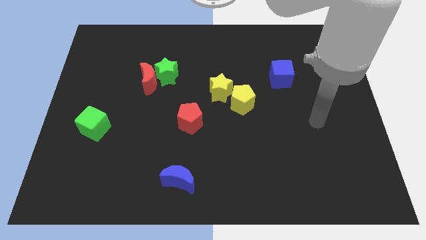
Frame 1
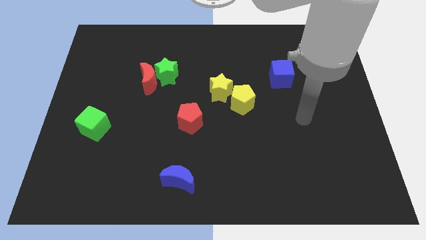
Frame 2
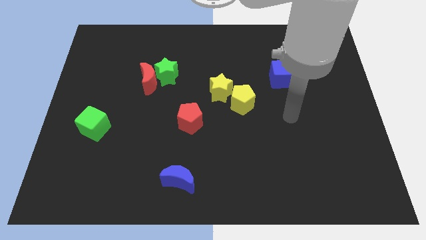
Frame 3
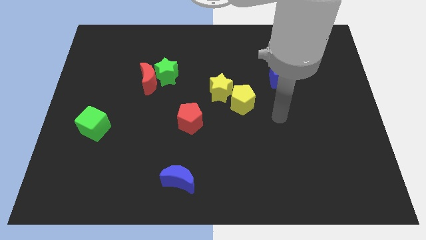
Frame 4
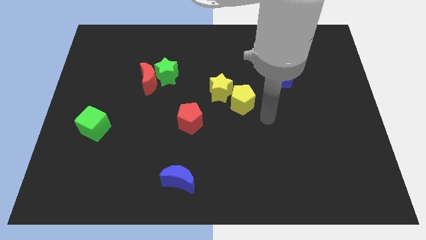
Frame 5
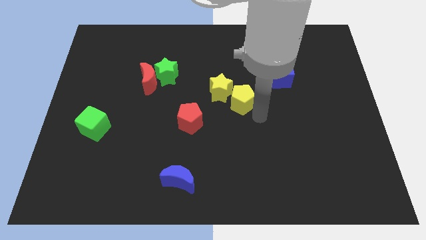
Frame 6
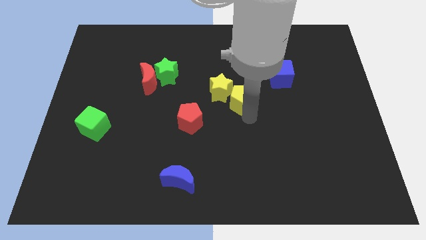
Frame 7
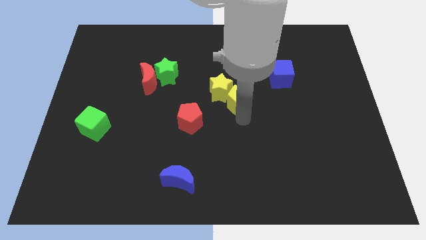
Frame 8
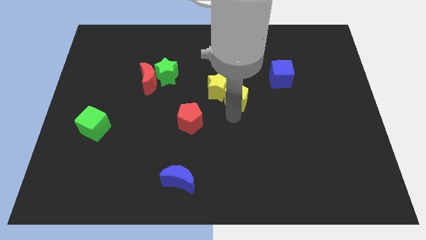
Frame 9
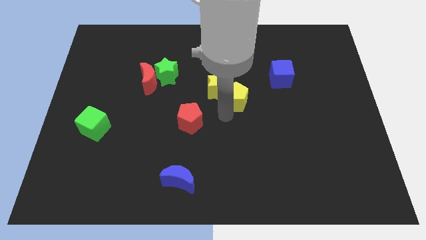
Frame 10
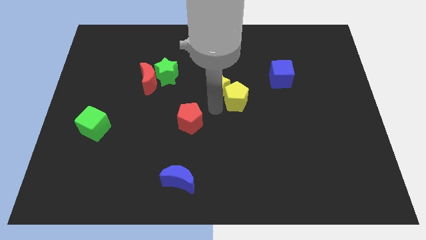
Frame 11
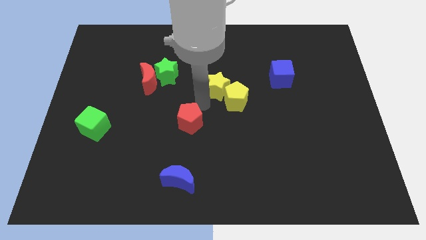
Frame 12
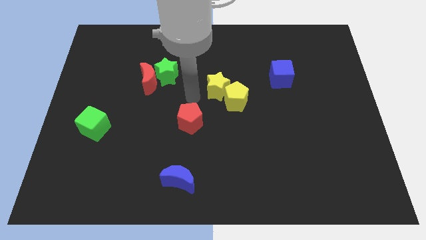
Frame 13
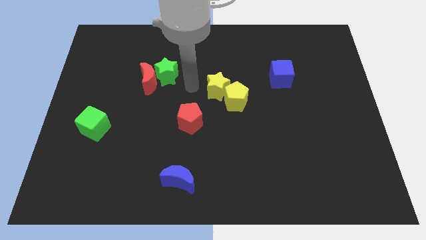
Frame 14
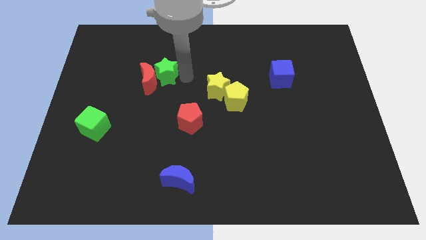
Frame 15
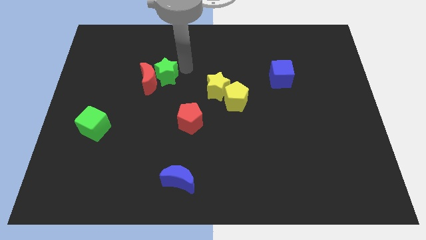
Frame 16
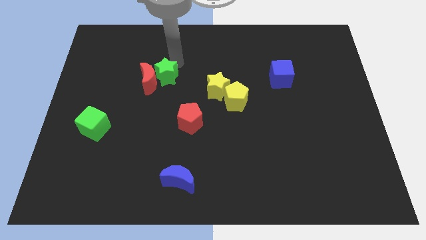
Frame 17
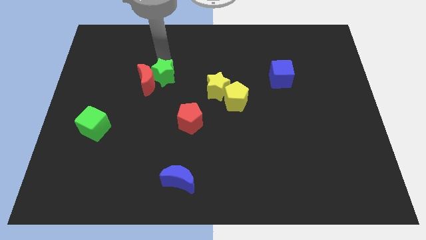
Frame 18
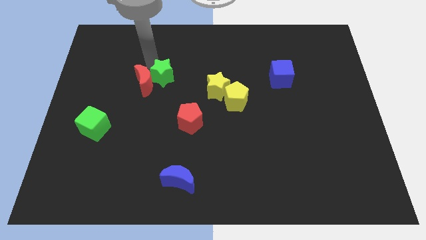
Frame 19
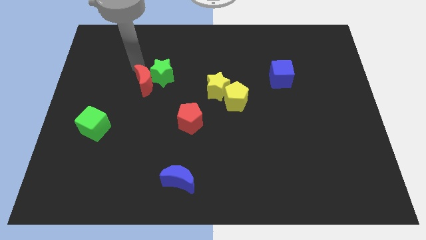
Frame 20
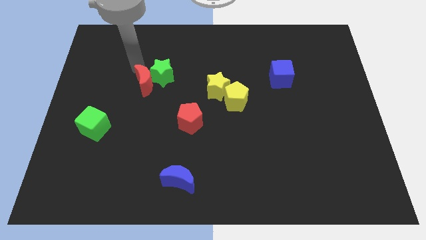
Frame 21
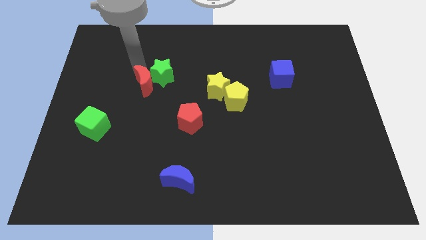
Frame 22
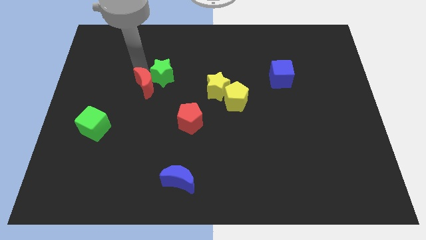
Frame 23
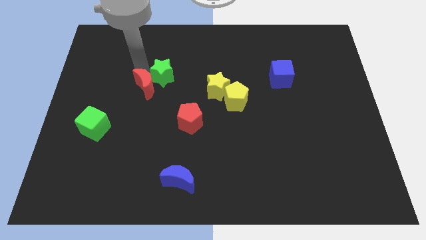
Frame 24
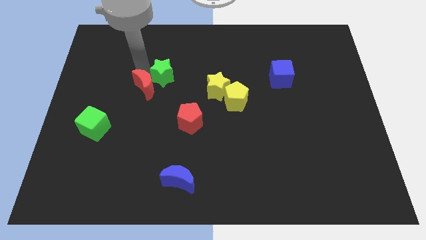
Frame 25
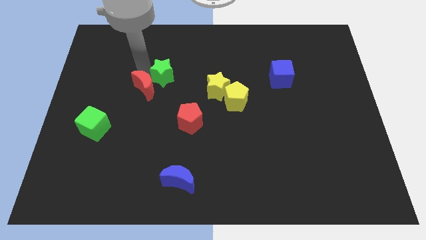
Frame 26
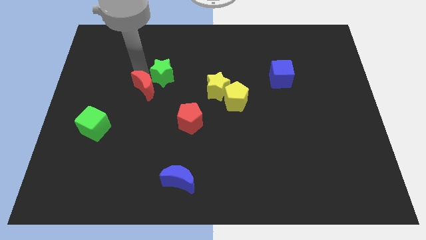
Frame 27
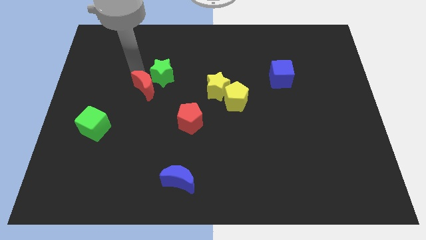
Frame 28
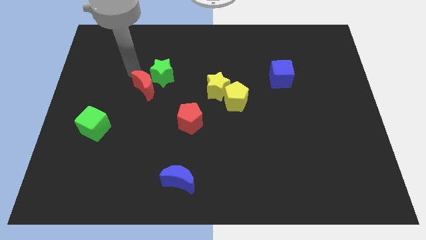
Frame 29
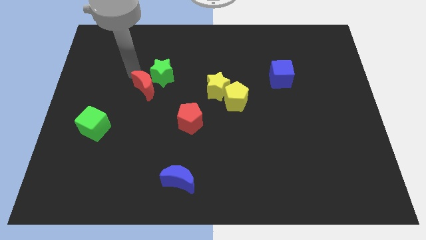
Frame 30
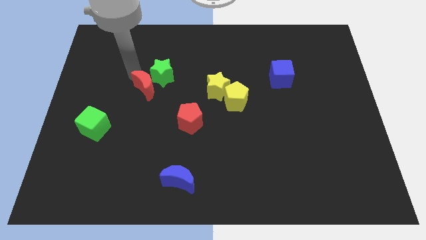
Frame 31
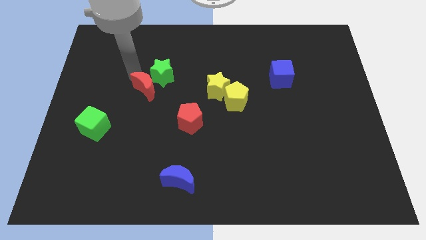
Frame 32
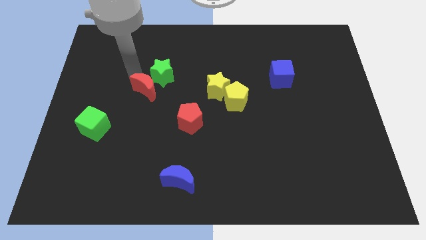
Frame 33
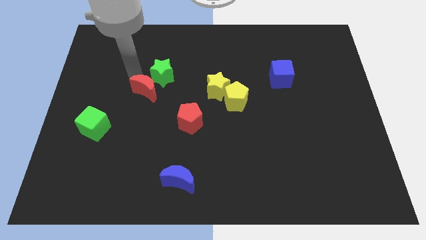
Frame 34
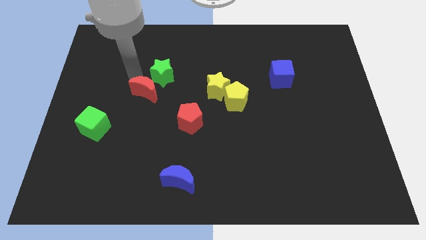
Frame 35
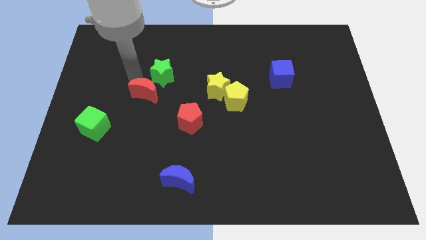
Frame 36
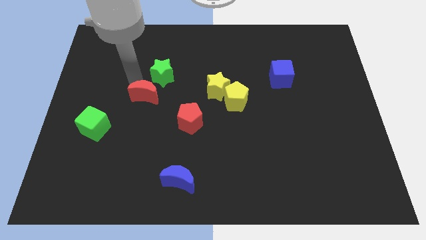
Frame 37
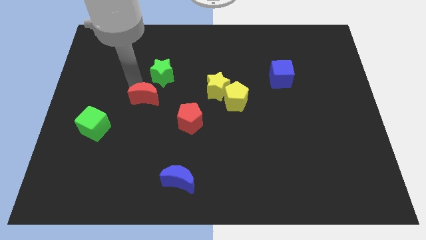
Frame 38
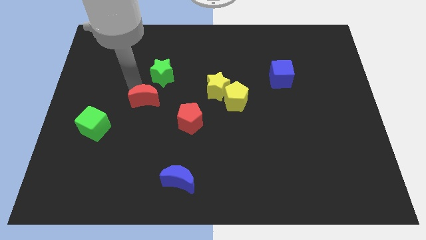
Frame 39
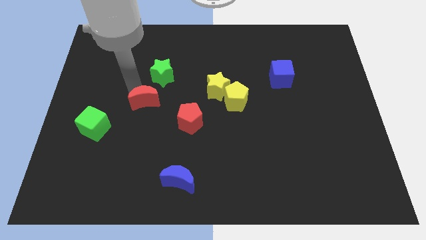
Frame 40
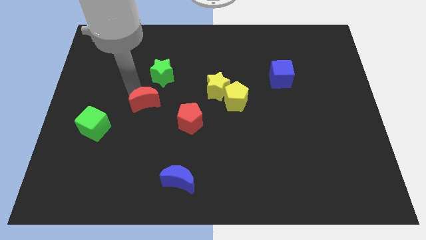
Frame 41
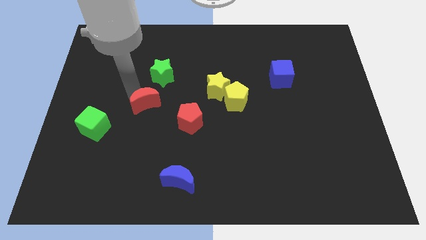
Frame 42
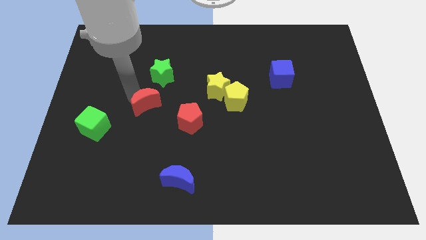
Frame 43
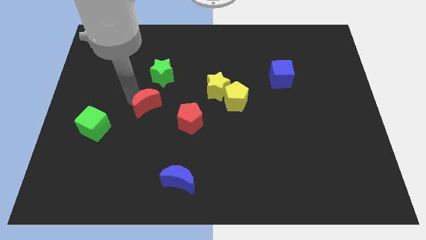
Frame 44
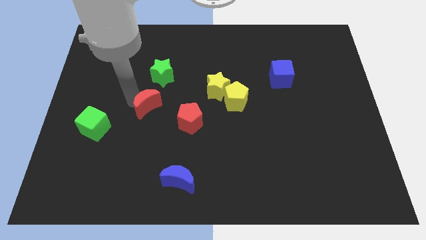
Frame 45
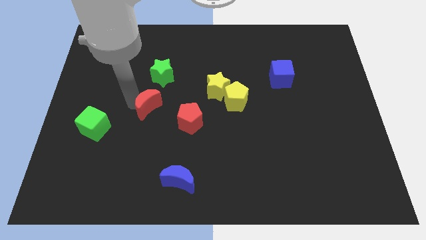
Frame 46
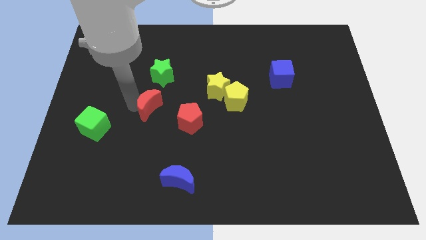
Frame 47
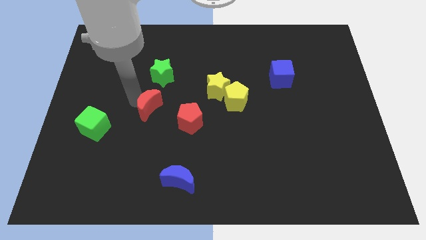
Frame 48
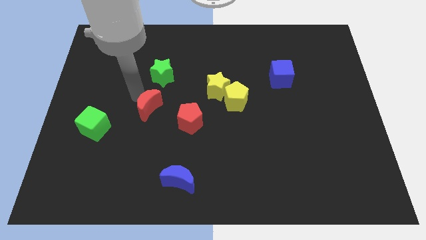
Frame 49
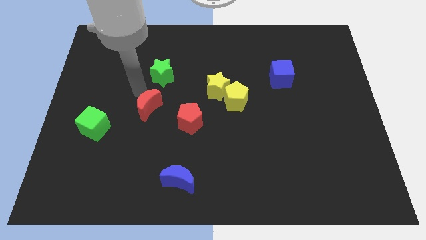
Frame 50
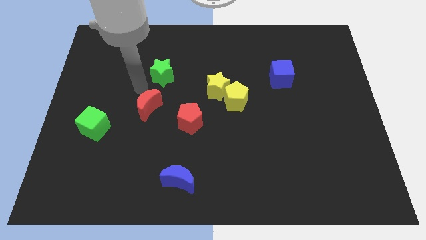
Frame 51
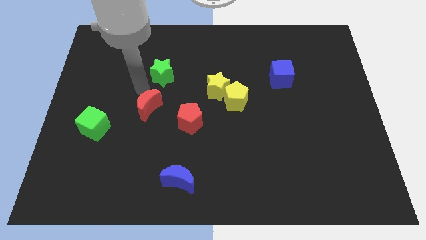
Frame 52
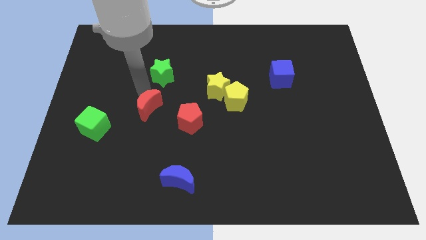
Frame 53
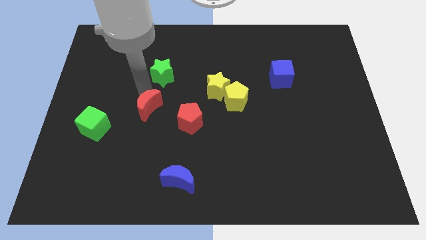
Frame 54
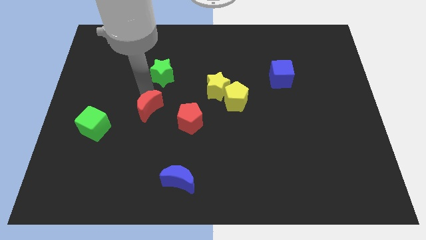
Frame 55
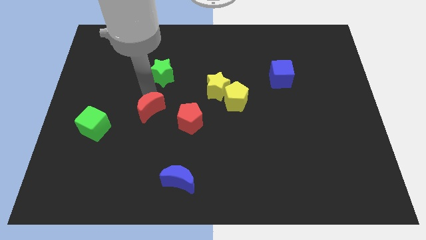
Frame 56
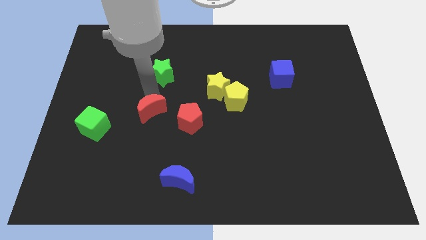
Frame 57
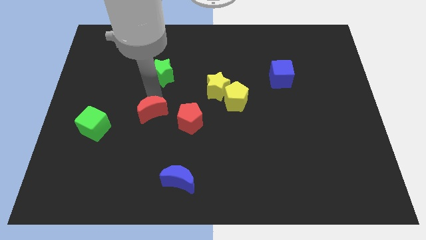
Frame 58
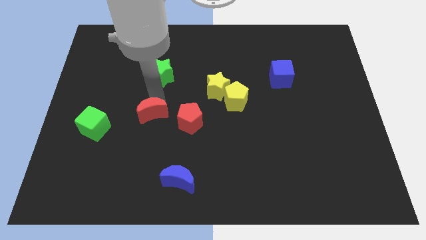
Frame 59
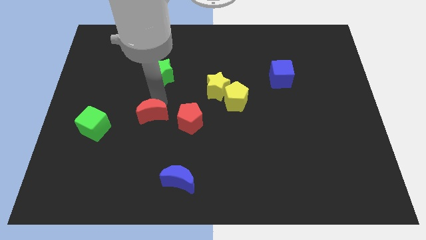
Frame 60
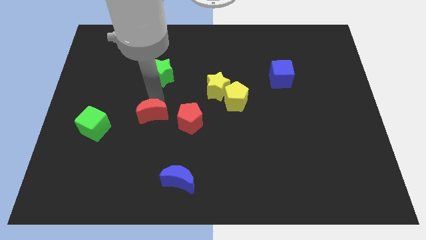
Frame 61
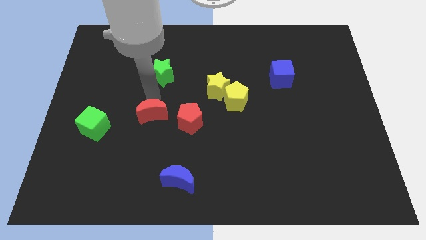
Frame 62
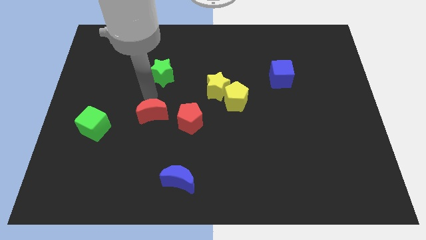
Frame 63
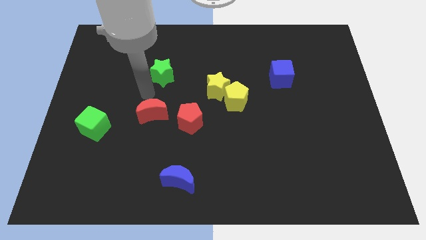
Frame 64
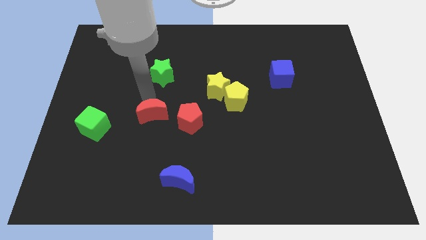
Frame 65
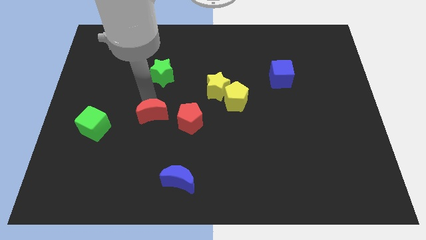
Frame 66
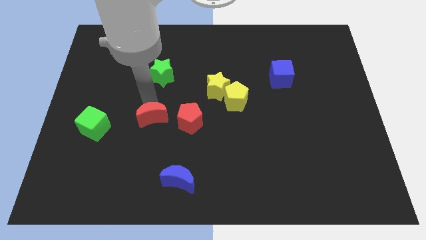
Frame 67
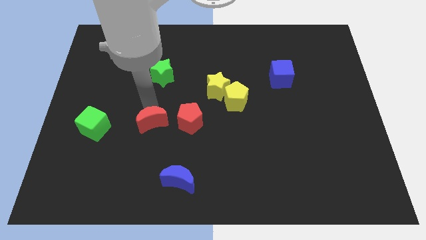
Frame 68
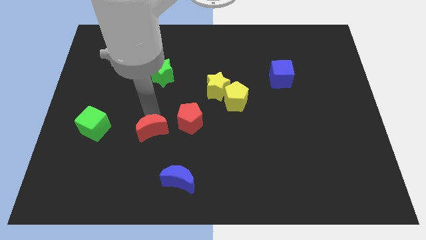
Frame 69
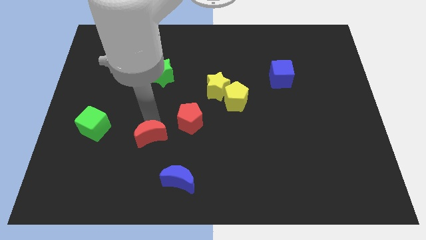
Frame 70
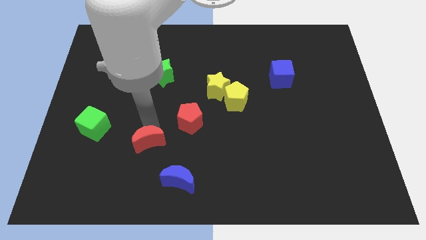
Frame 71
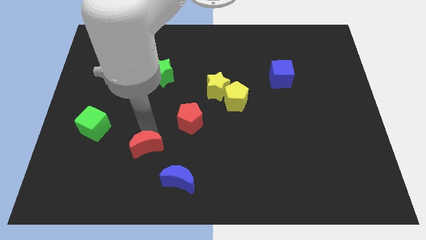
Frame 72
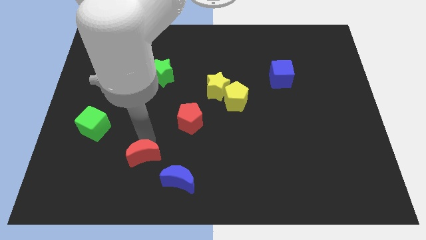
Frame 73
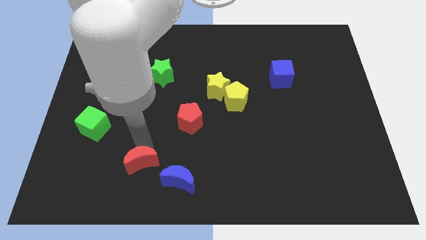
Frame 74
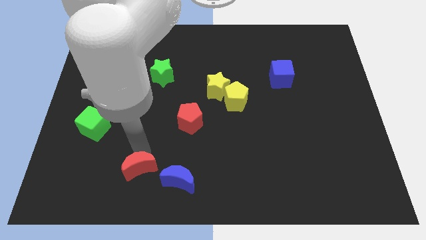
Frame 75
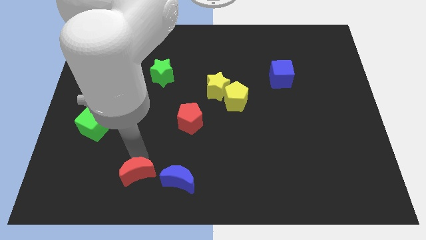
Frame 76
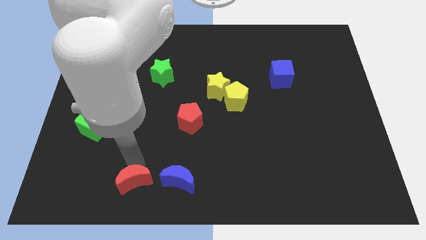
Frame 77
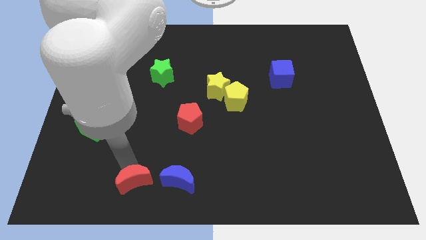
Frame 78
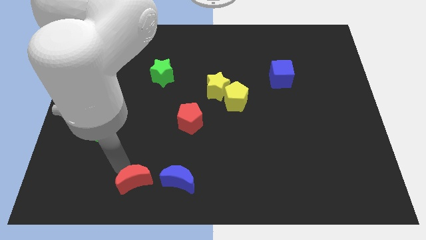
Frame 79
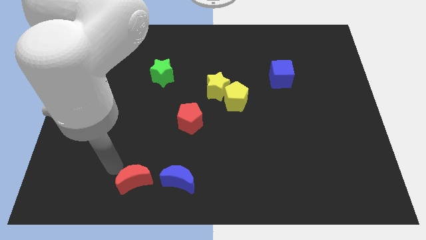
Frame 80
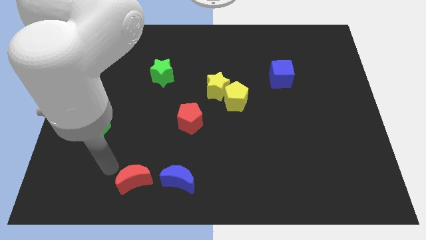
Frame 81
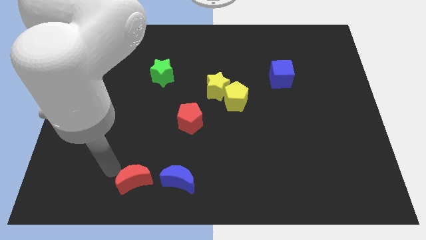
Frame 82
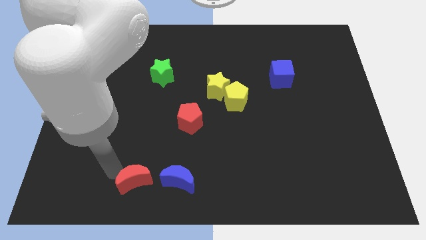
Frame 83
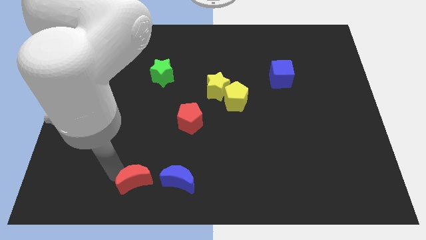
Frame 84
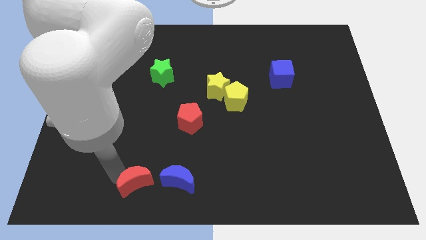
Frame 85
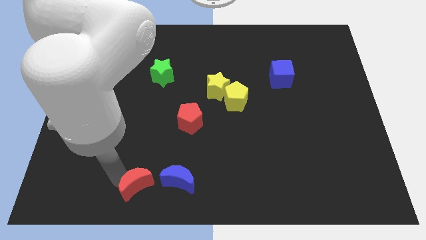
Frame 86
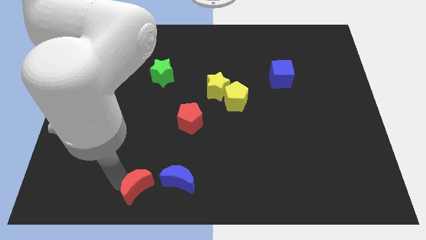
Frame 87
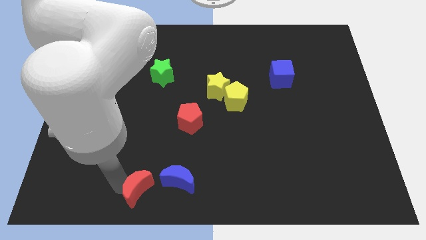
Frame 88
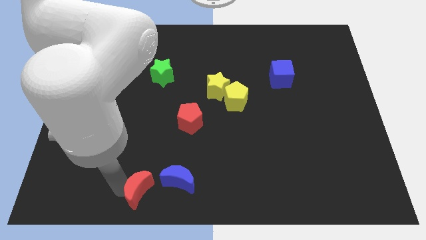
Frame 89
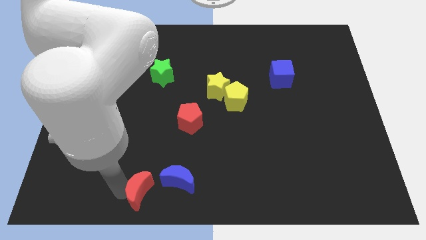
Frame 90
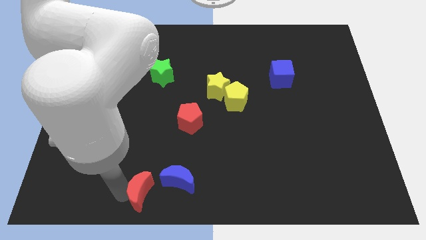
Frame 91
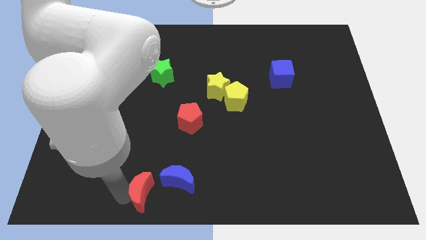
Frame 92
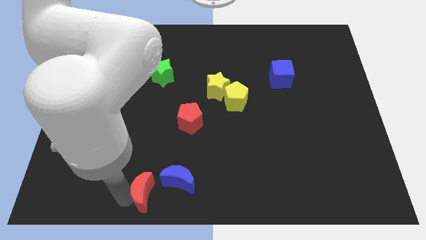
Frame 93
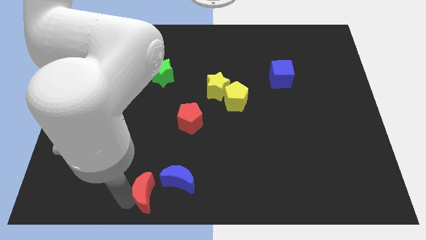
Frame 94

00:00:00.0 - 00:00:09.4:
put the red moon to the bottom
